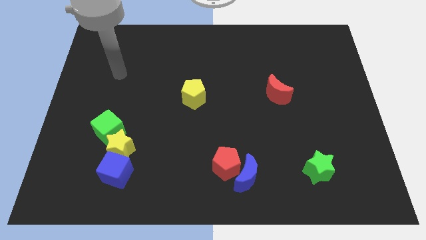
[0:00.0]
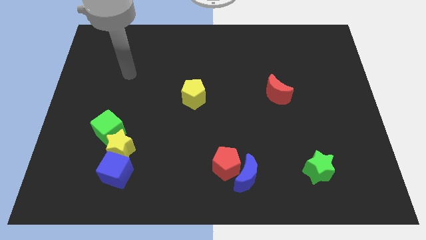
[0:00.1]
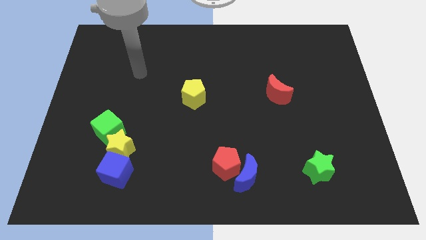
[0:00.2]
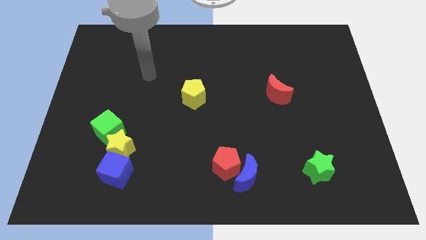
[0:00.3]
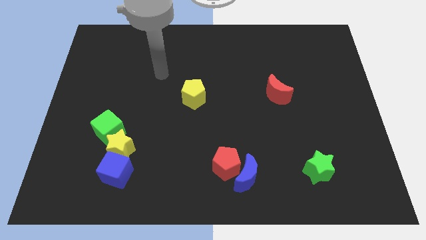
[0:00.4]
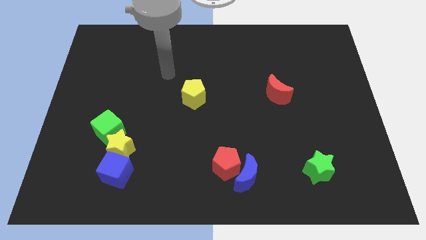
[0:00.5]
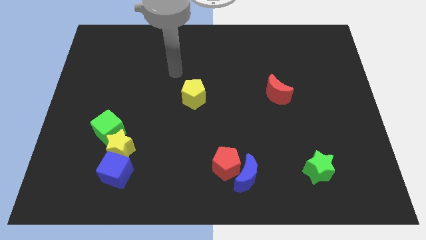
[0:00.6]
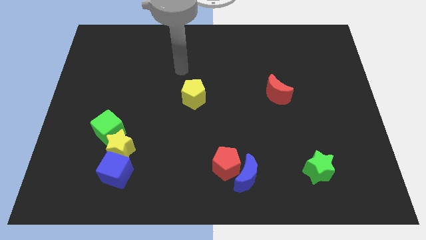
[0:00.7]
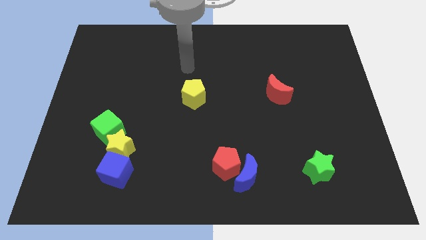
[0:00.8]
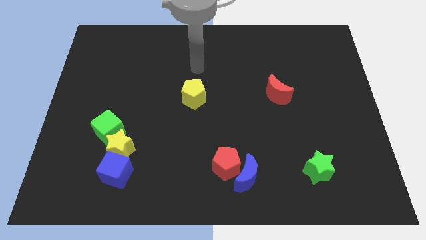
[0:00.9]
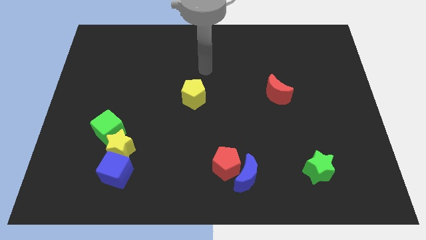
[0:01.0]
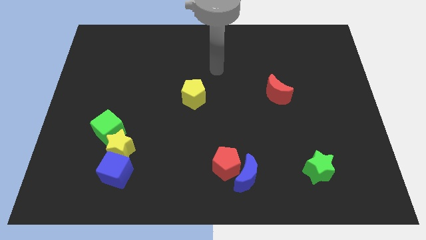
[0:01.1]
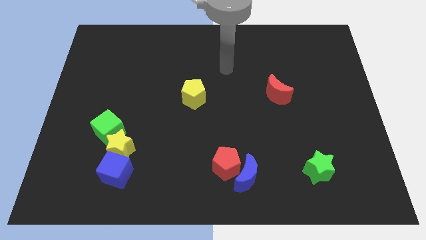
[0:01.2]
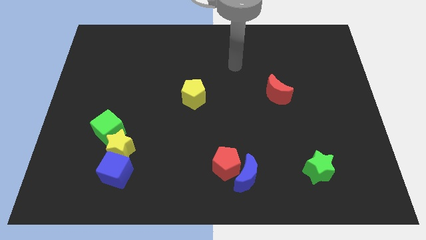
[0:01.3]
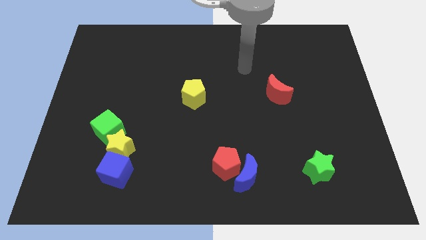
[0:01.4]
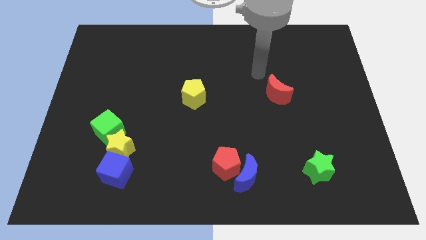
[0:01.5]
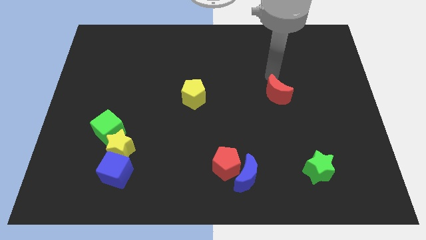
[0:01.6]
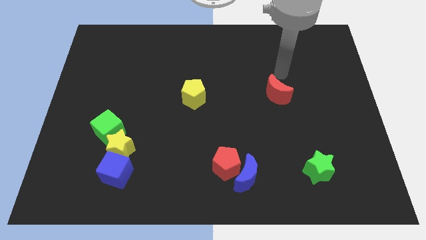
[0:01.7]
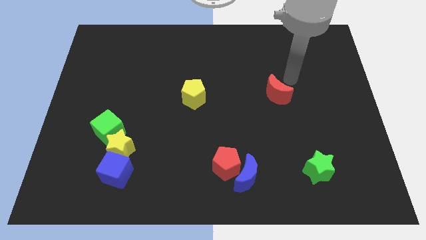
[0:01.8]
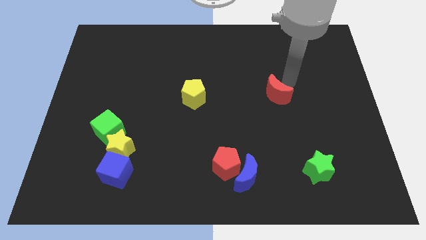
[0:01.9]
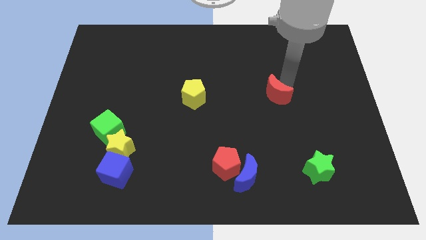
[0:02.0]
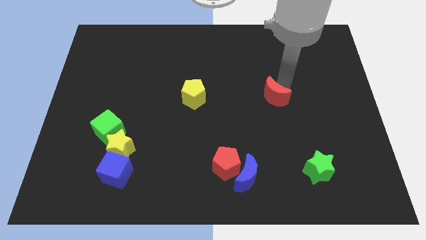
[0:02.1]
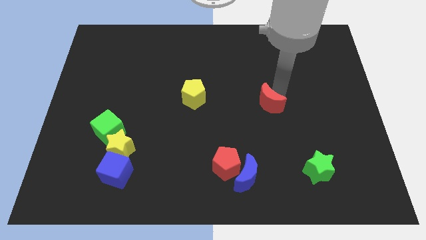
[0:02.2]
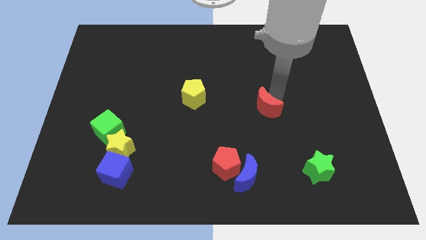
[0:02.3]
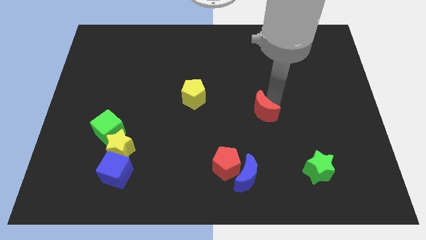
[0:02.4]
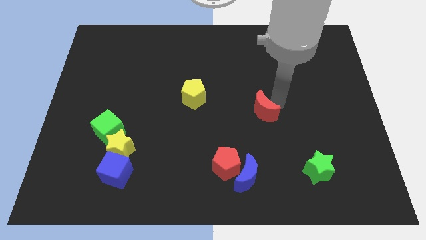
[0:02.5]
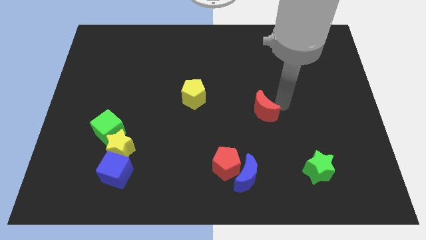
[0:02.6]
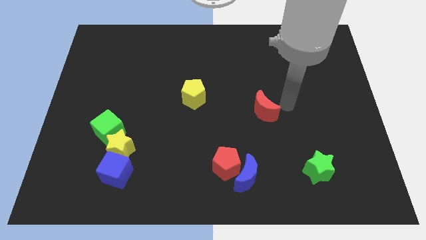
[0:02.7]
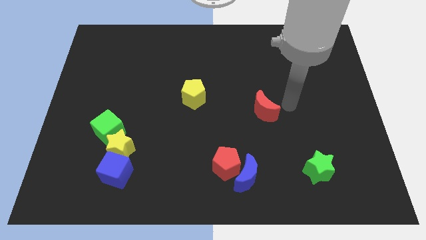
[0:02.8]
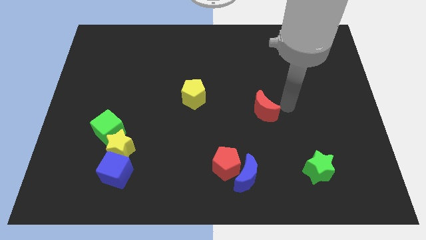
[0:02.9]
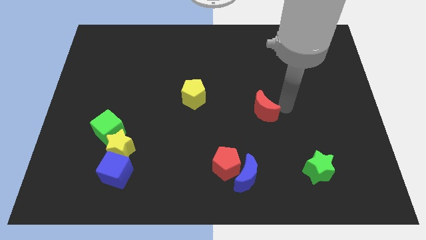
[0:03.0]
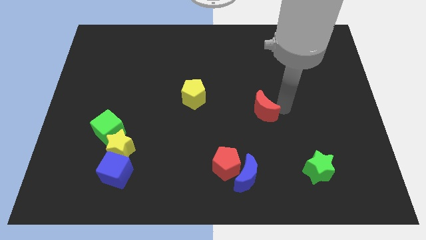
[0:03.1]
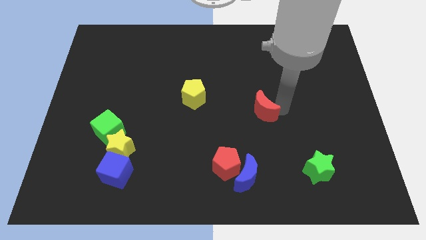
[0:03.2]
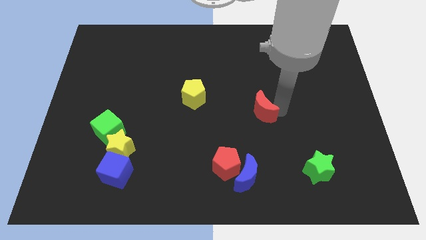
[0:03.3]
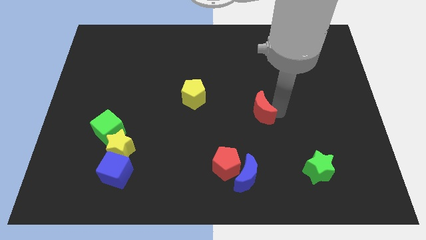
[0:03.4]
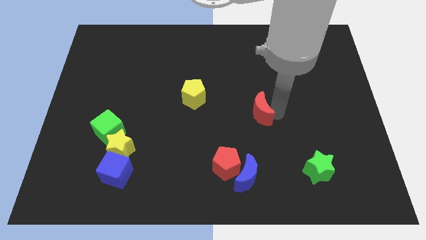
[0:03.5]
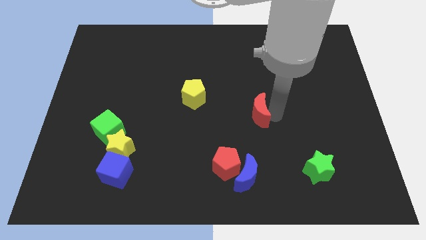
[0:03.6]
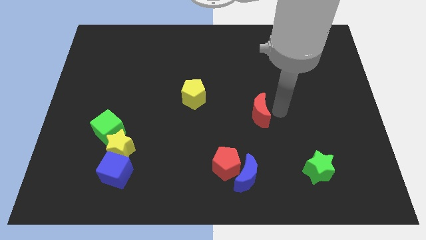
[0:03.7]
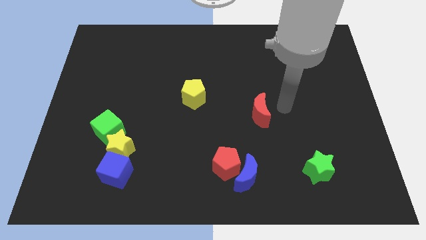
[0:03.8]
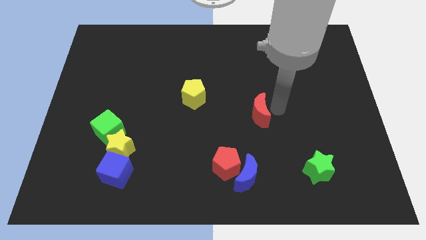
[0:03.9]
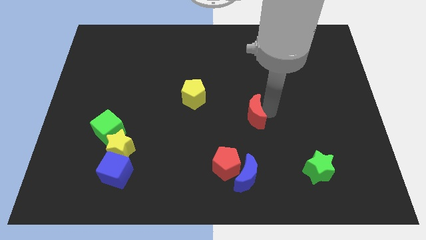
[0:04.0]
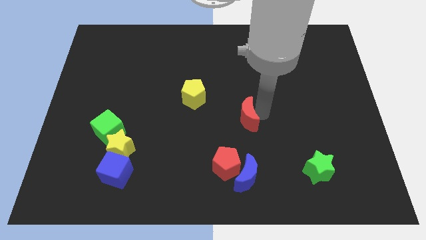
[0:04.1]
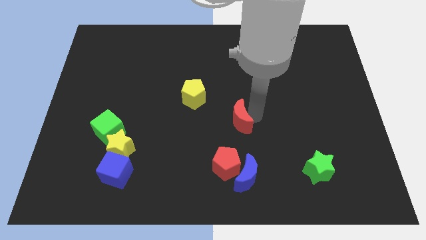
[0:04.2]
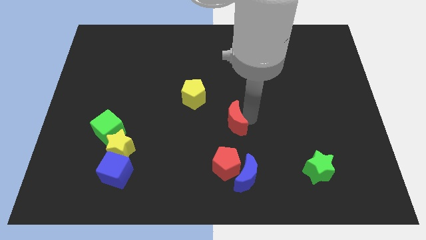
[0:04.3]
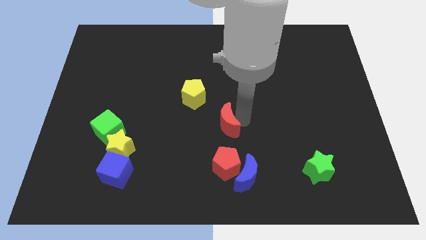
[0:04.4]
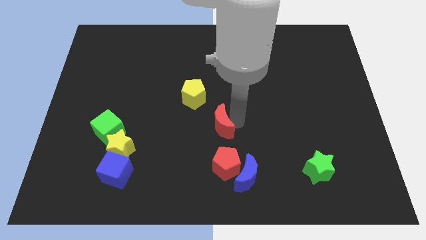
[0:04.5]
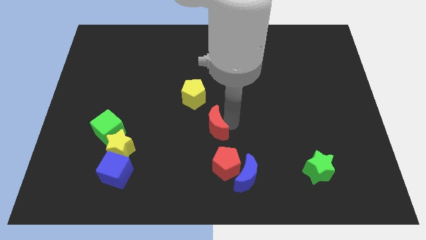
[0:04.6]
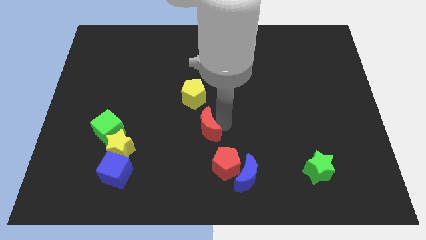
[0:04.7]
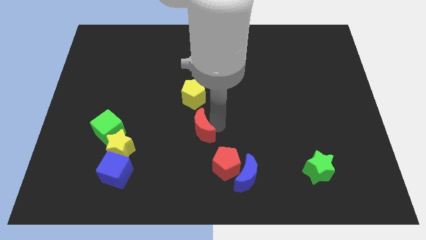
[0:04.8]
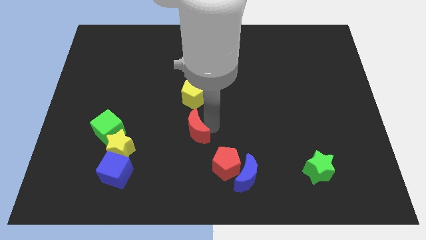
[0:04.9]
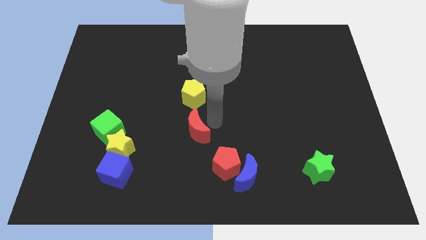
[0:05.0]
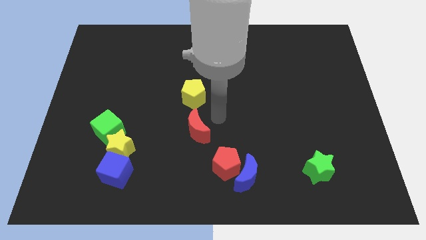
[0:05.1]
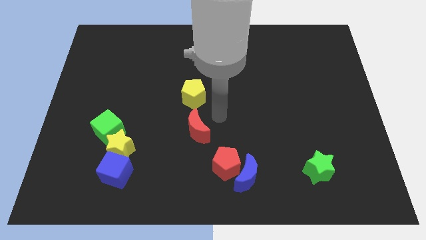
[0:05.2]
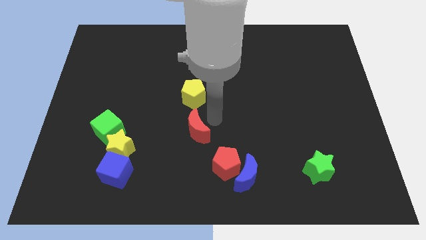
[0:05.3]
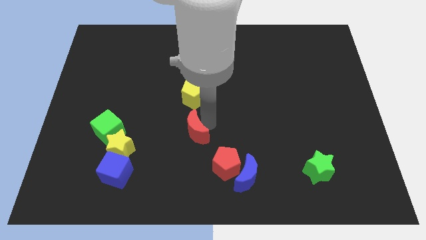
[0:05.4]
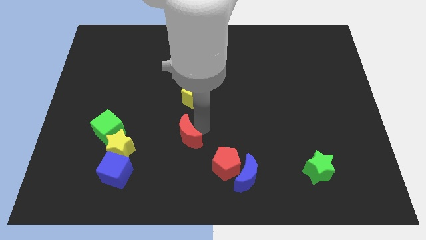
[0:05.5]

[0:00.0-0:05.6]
push the red moon to the right side of the yellow star

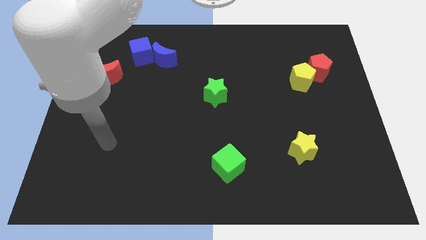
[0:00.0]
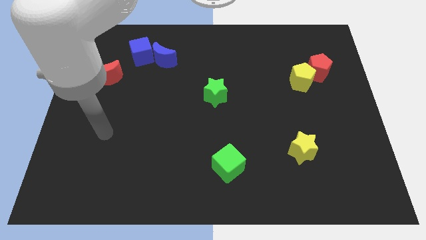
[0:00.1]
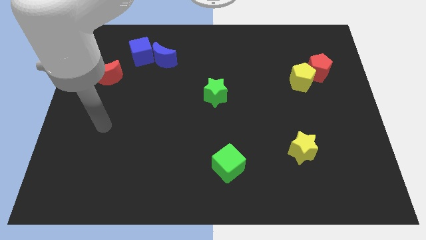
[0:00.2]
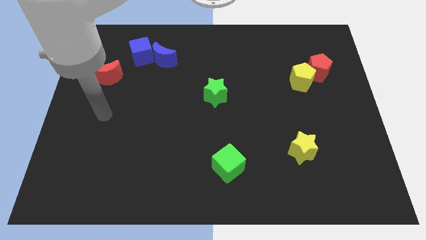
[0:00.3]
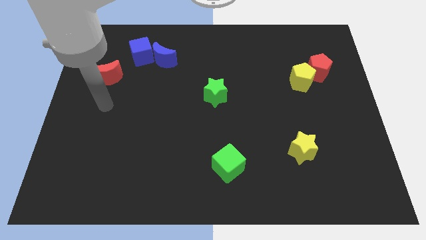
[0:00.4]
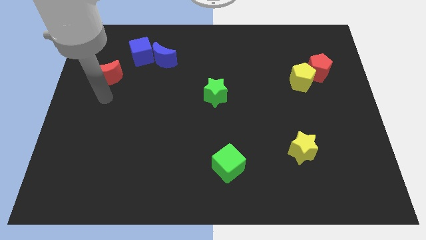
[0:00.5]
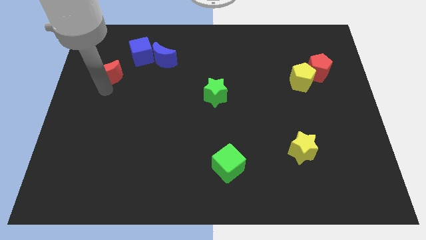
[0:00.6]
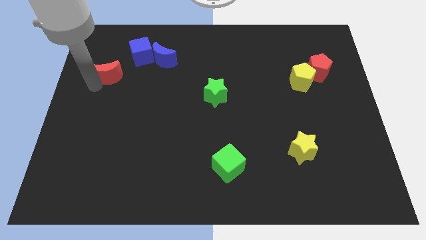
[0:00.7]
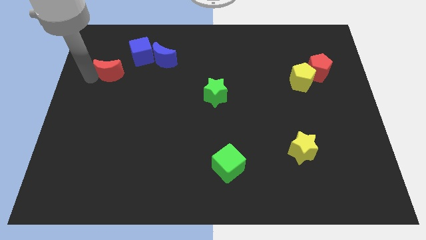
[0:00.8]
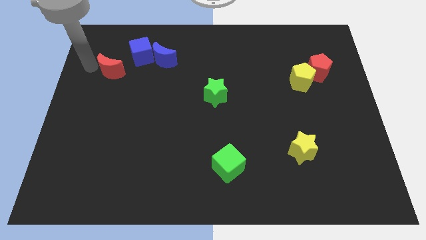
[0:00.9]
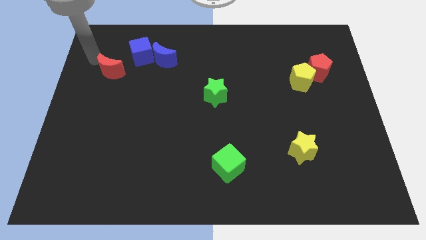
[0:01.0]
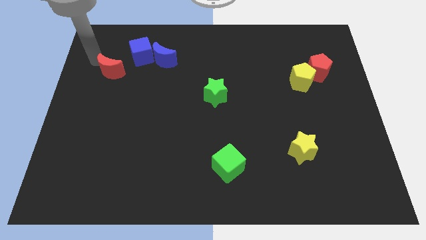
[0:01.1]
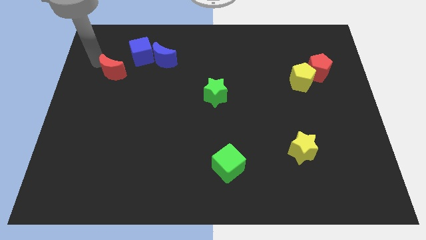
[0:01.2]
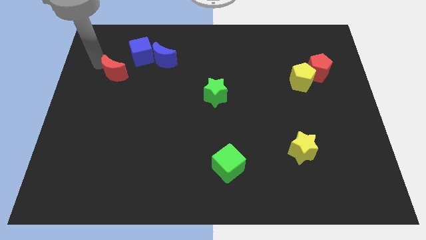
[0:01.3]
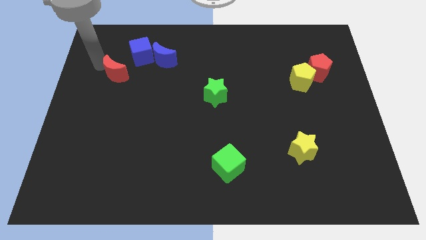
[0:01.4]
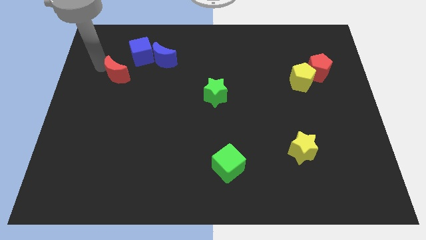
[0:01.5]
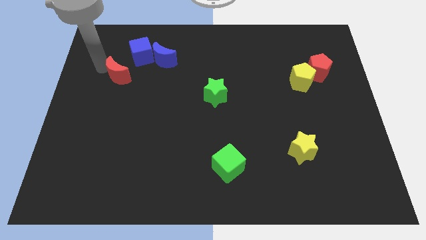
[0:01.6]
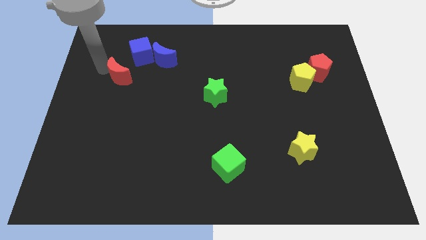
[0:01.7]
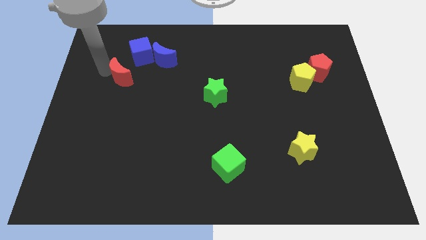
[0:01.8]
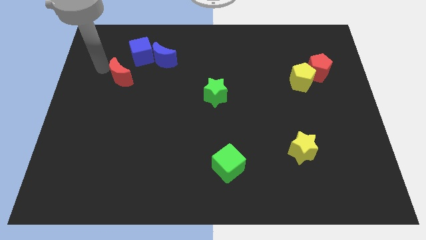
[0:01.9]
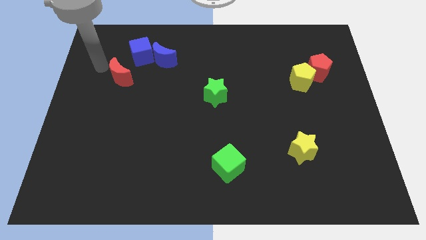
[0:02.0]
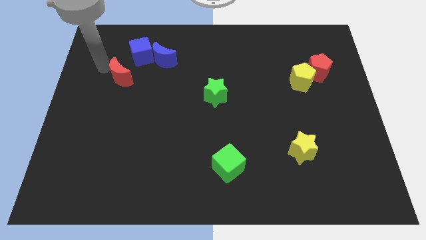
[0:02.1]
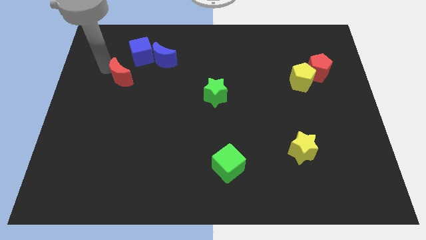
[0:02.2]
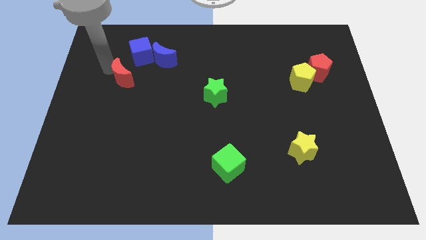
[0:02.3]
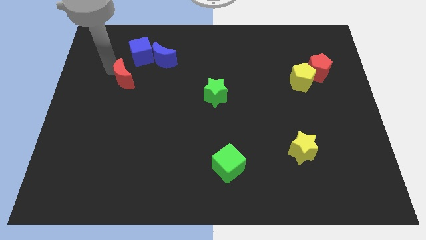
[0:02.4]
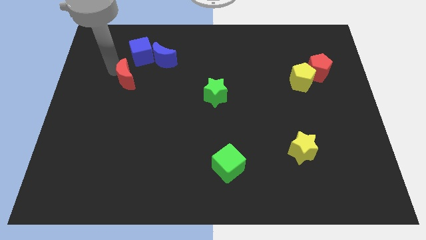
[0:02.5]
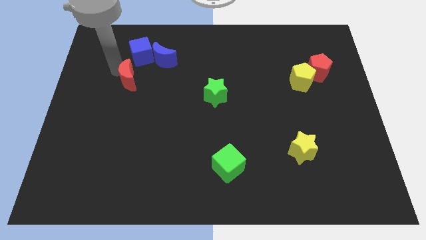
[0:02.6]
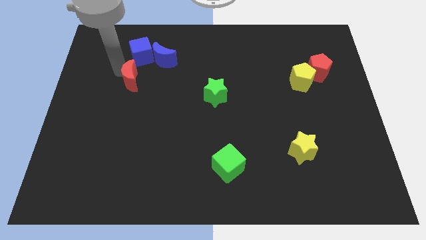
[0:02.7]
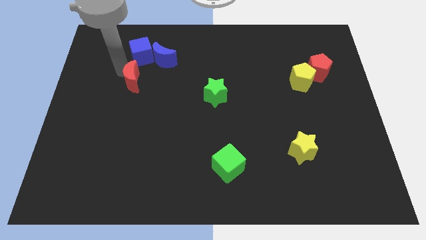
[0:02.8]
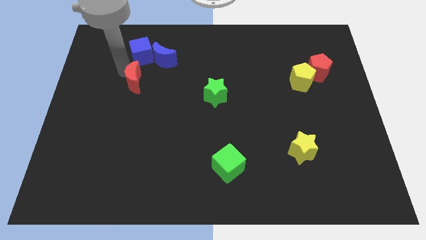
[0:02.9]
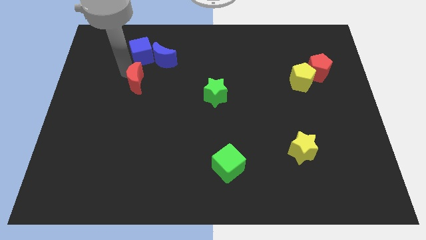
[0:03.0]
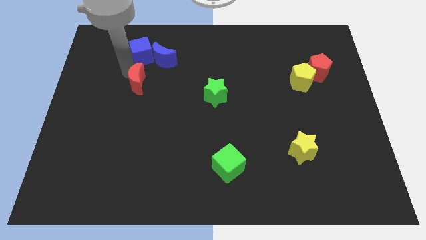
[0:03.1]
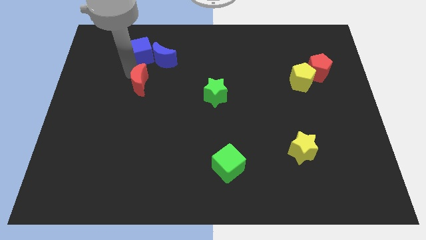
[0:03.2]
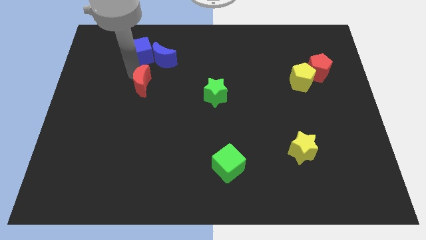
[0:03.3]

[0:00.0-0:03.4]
move the red moon to the bottom of the blue moon
